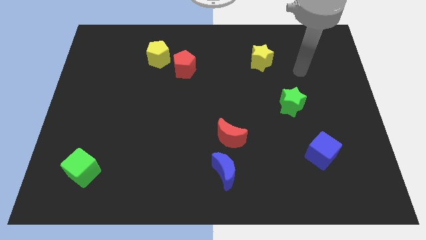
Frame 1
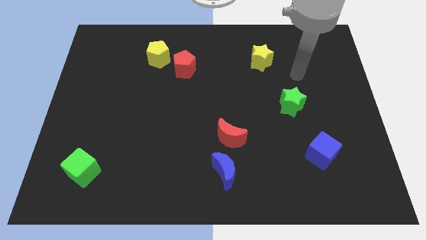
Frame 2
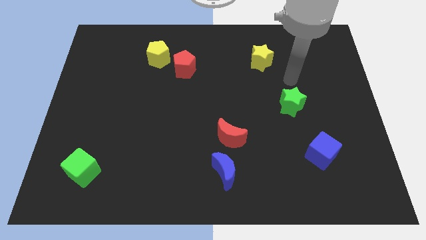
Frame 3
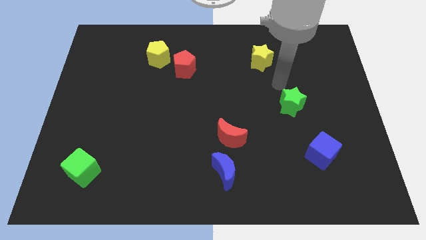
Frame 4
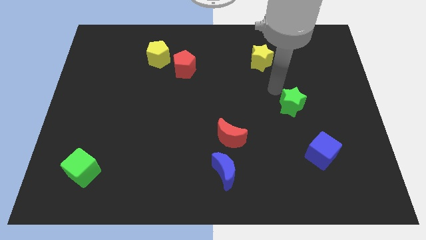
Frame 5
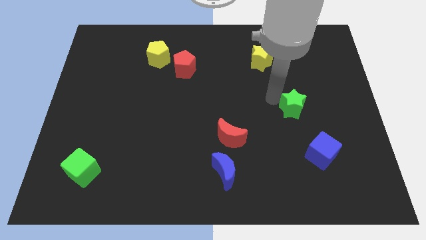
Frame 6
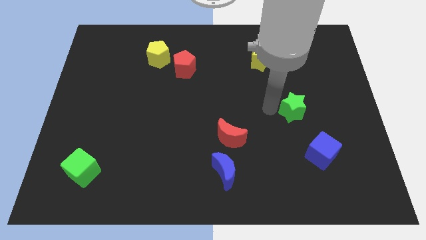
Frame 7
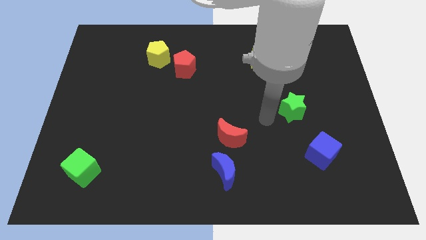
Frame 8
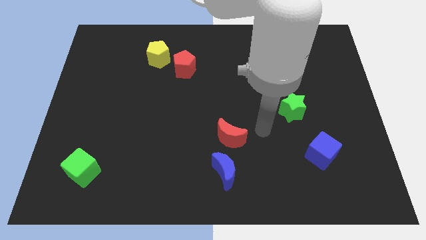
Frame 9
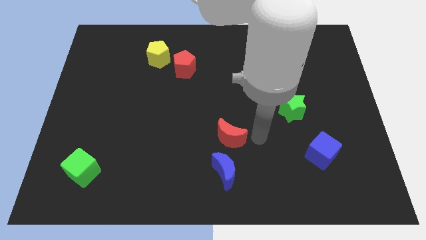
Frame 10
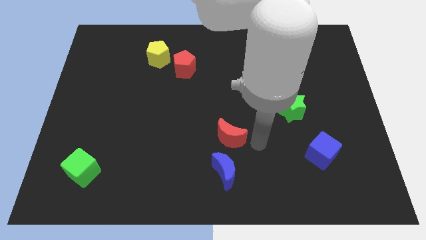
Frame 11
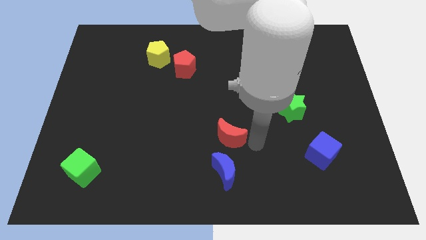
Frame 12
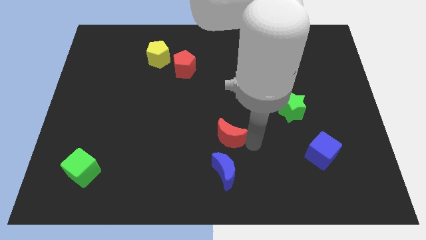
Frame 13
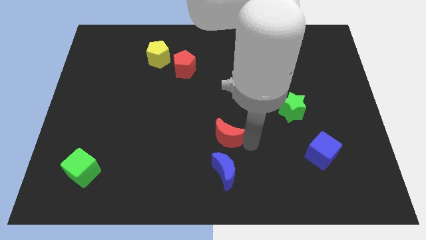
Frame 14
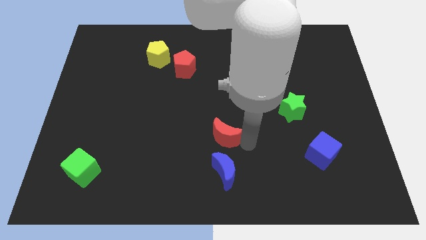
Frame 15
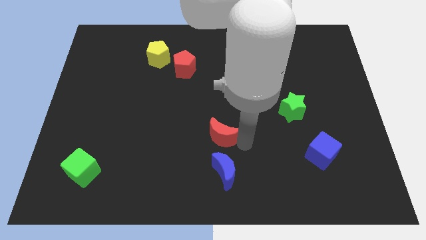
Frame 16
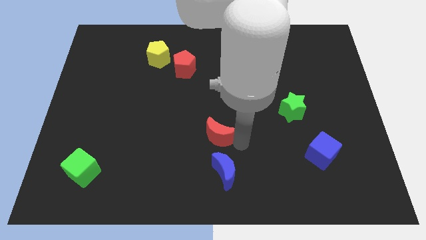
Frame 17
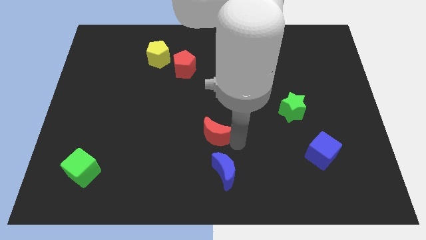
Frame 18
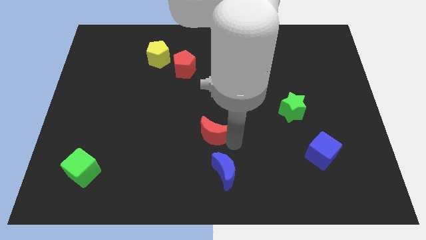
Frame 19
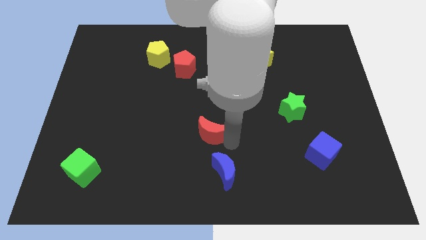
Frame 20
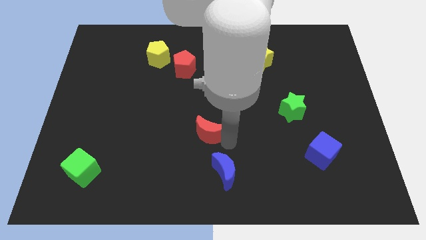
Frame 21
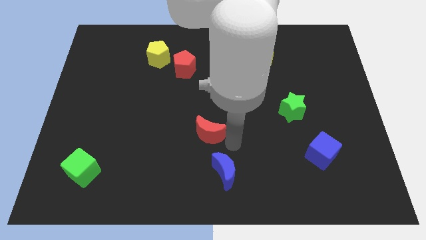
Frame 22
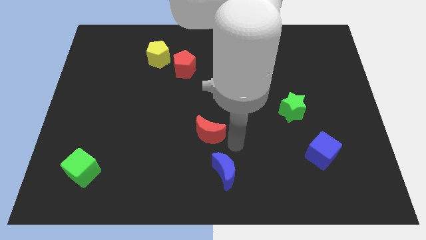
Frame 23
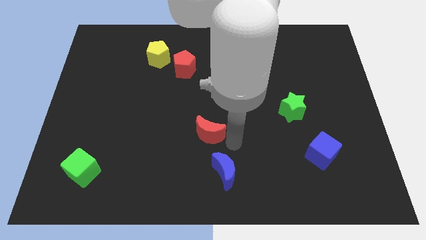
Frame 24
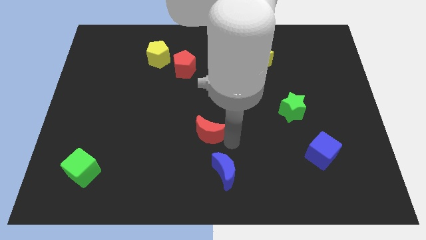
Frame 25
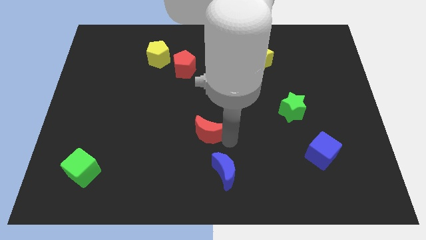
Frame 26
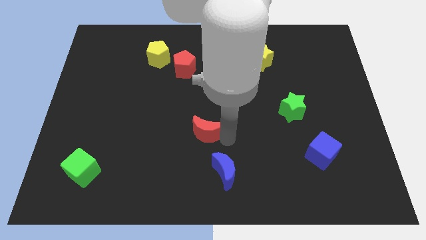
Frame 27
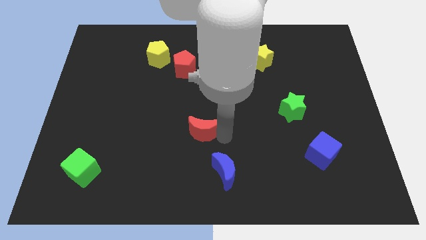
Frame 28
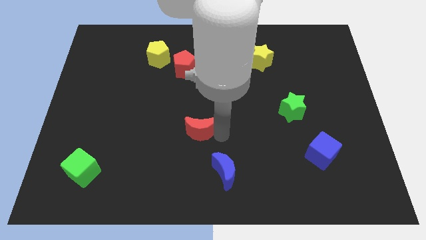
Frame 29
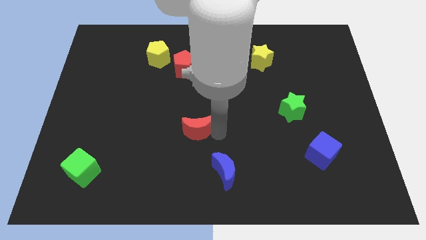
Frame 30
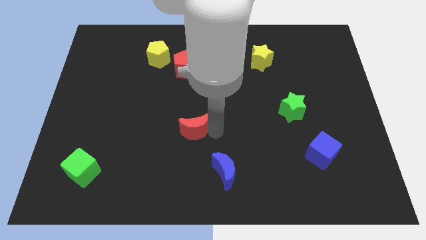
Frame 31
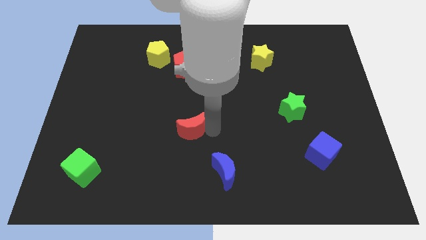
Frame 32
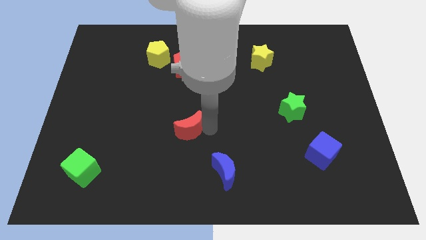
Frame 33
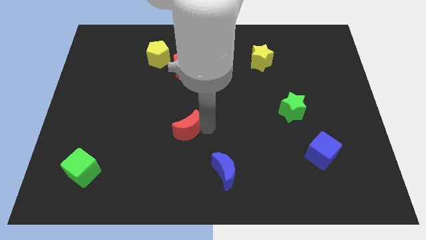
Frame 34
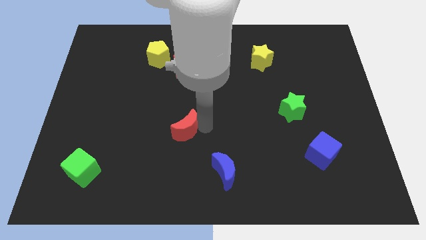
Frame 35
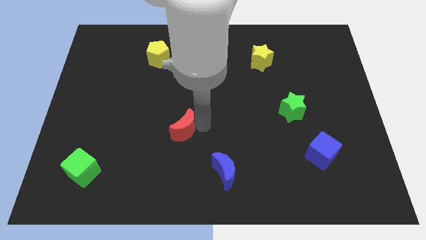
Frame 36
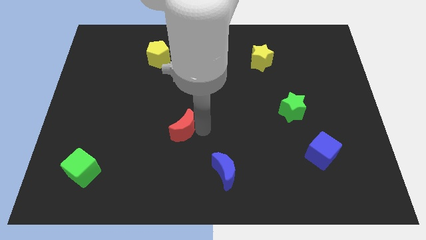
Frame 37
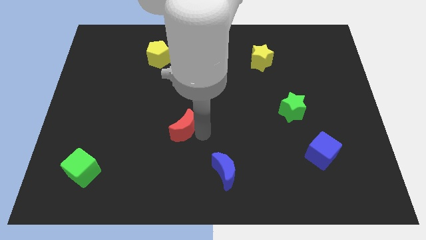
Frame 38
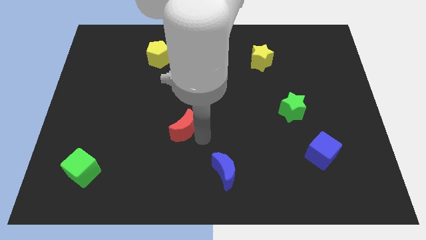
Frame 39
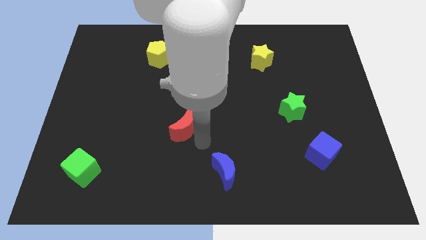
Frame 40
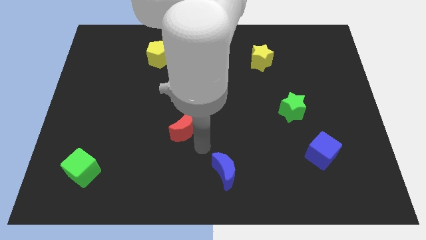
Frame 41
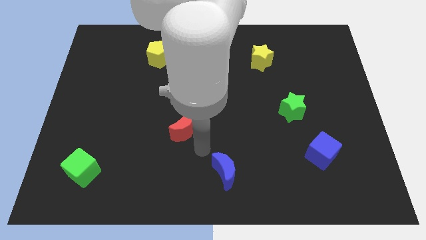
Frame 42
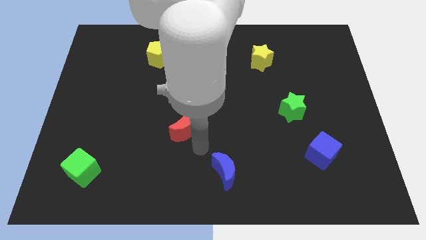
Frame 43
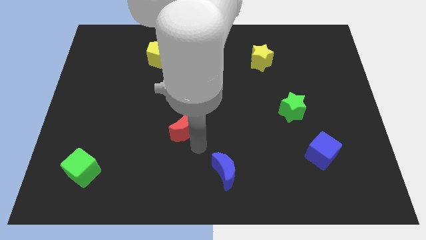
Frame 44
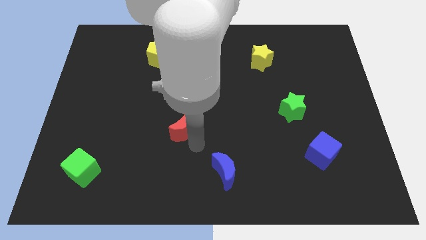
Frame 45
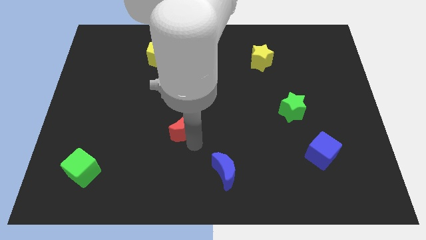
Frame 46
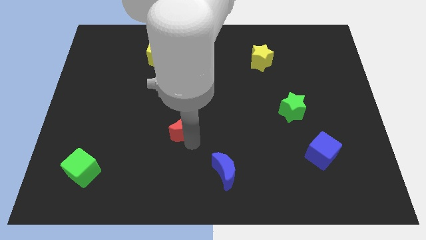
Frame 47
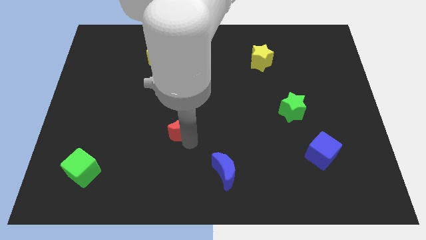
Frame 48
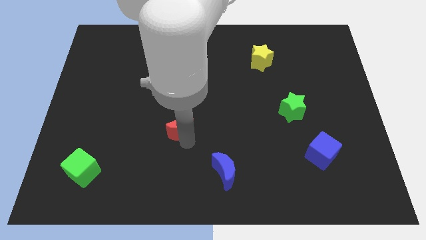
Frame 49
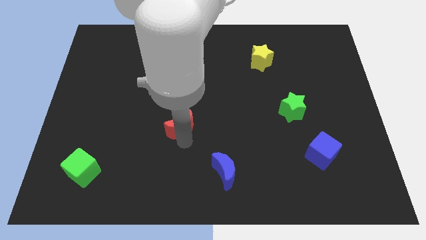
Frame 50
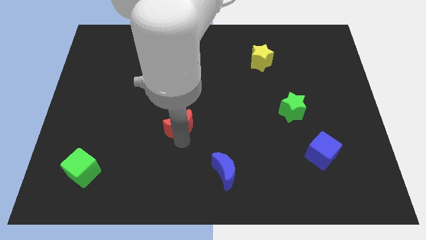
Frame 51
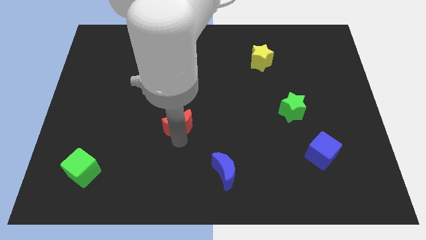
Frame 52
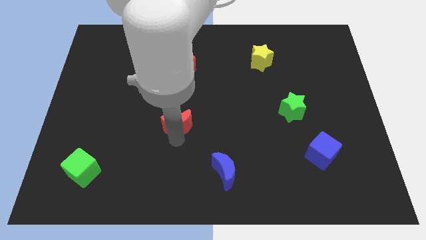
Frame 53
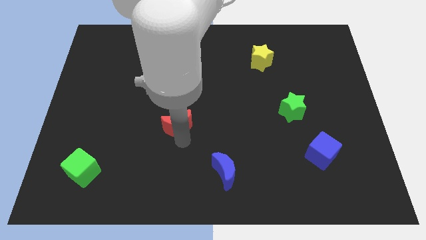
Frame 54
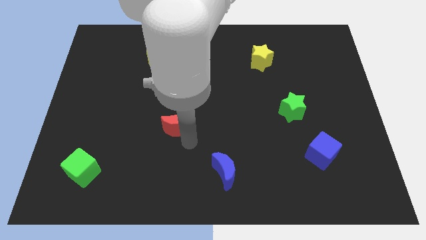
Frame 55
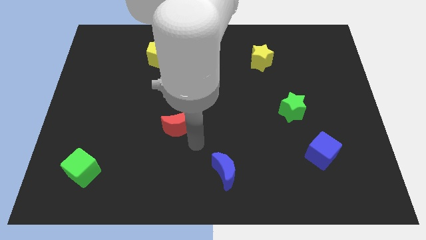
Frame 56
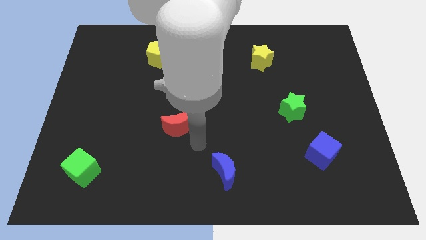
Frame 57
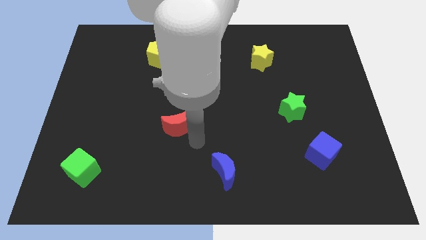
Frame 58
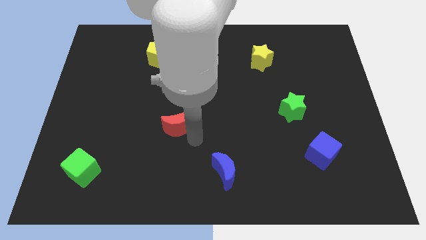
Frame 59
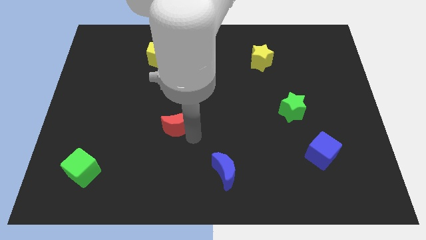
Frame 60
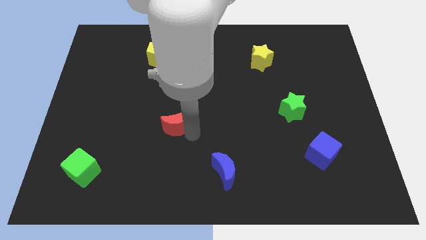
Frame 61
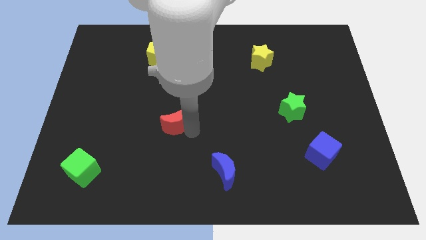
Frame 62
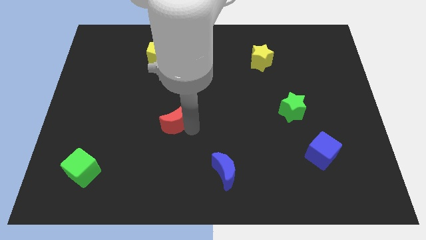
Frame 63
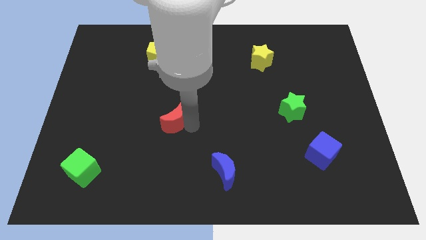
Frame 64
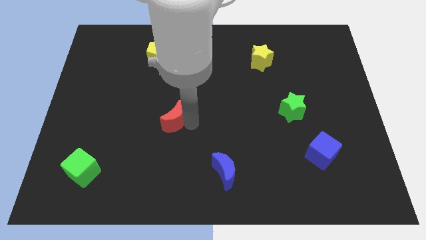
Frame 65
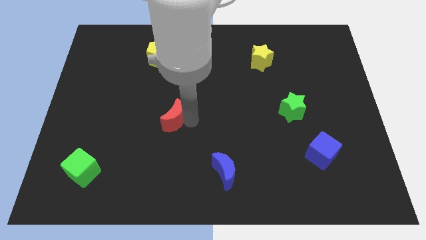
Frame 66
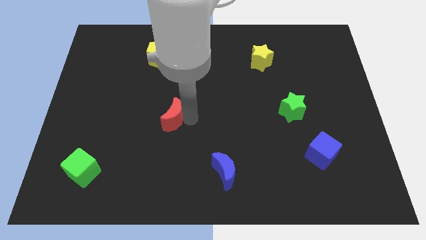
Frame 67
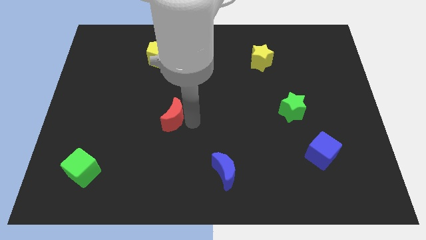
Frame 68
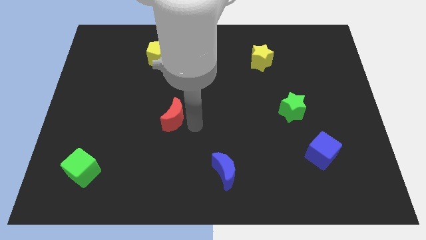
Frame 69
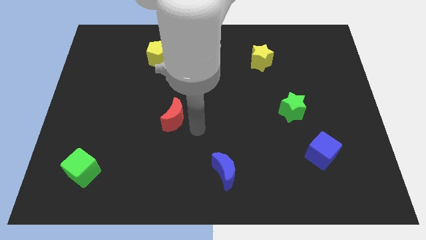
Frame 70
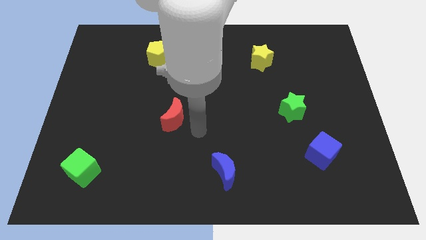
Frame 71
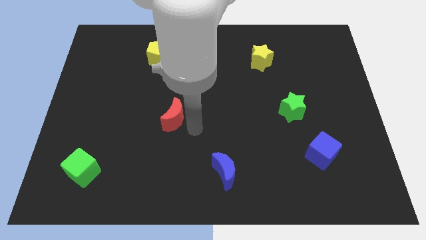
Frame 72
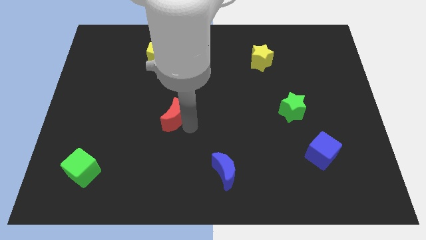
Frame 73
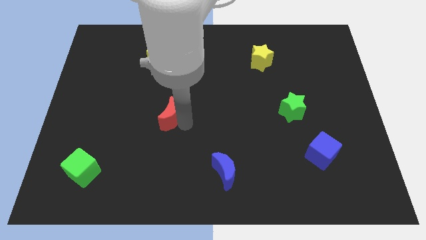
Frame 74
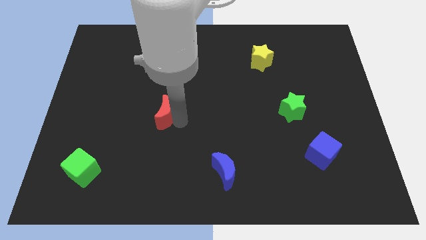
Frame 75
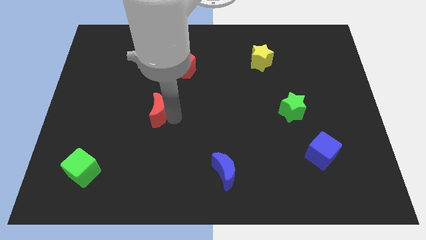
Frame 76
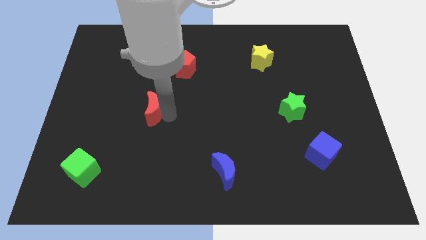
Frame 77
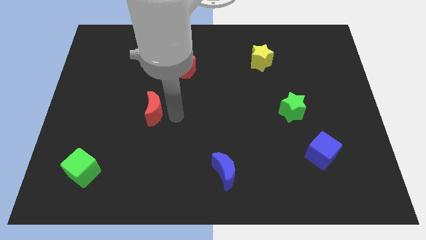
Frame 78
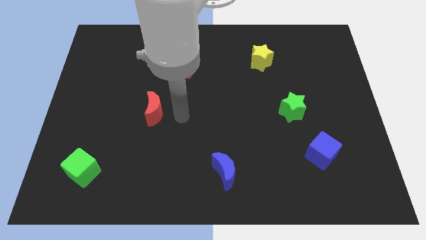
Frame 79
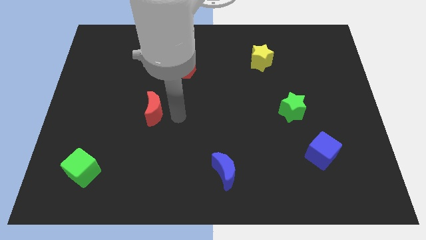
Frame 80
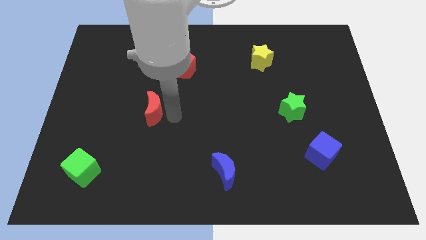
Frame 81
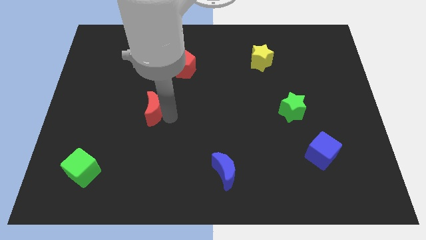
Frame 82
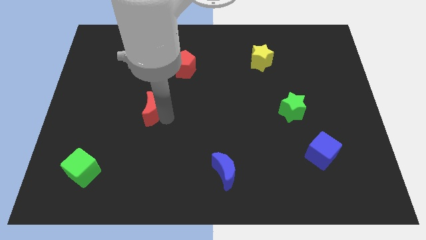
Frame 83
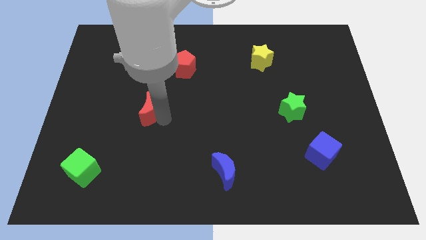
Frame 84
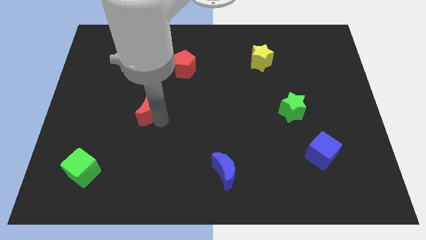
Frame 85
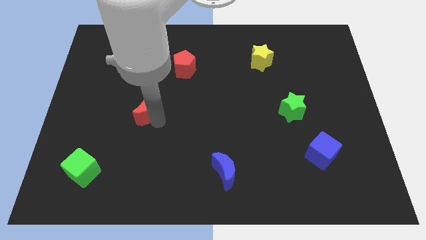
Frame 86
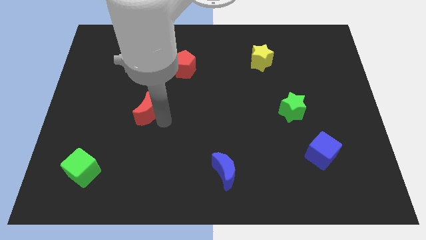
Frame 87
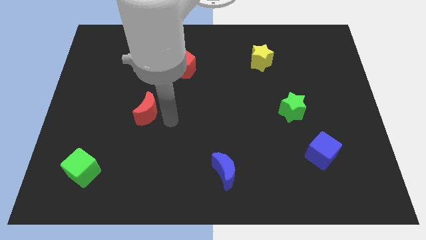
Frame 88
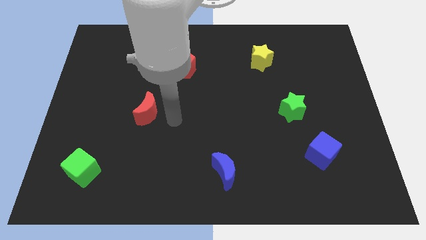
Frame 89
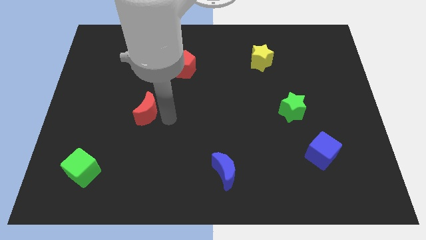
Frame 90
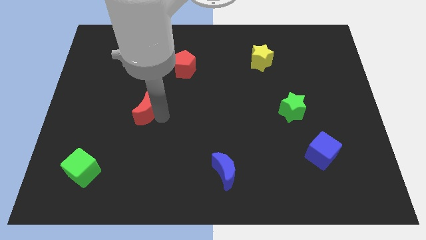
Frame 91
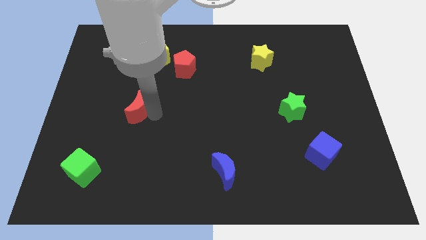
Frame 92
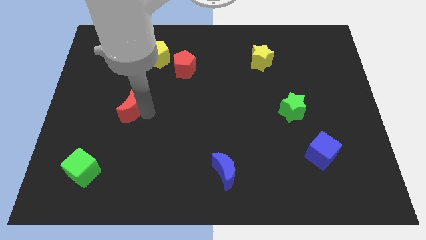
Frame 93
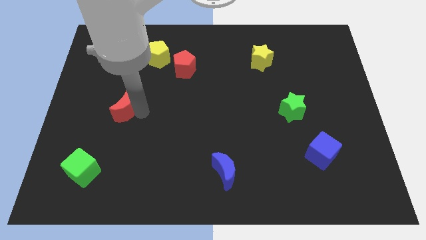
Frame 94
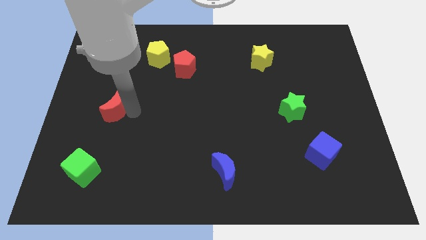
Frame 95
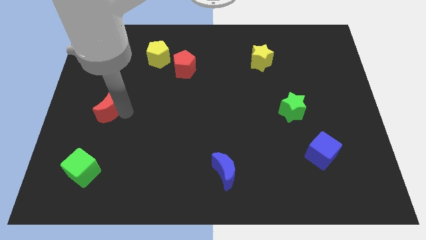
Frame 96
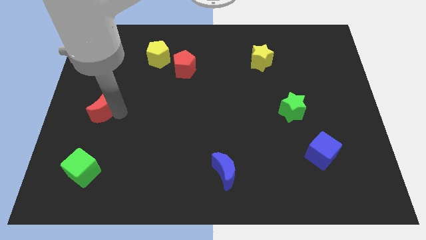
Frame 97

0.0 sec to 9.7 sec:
push the red moon to the center left
